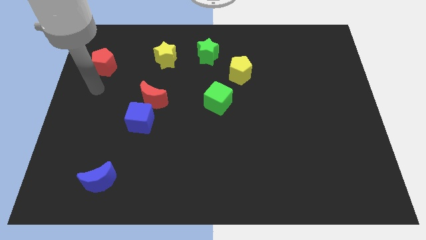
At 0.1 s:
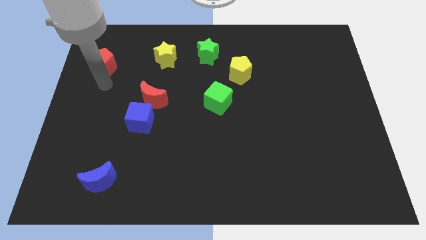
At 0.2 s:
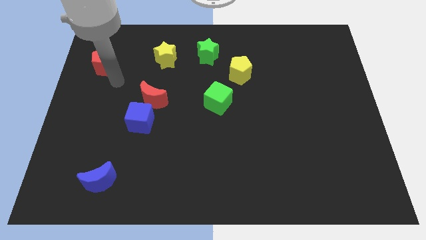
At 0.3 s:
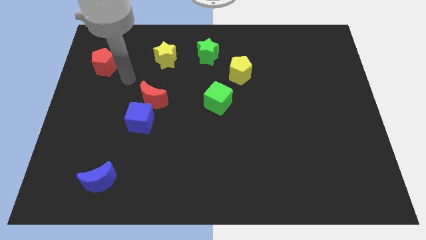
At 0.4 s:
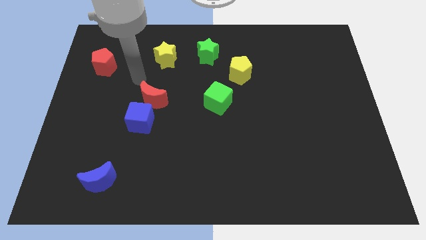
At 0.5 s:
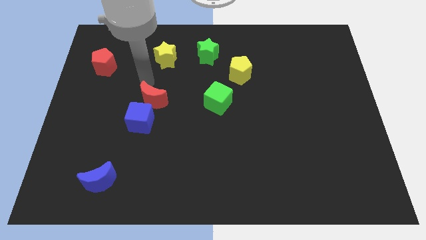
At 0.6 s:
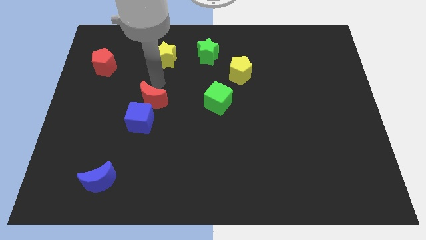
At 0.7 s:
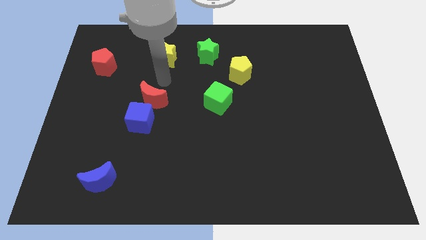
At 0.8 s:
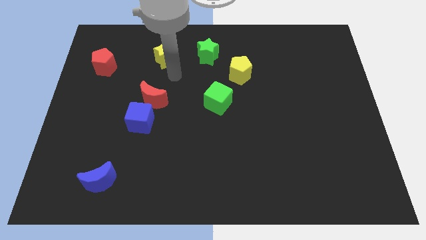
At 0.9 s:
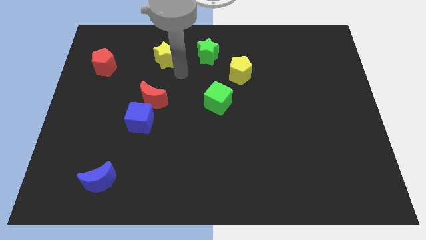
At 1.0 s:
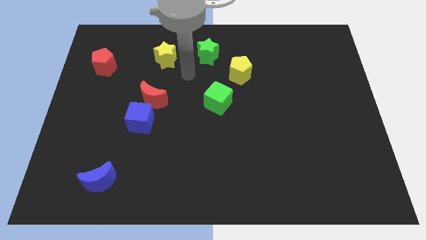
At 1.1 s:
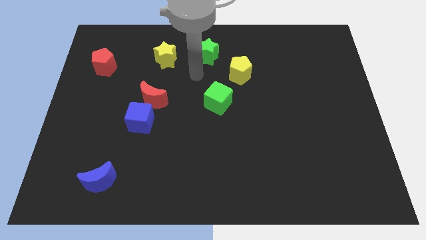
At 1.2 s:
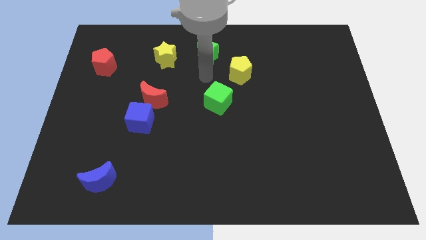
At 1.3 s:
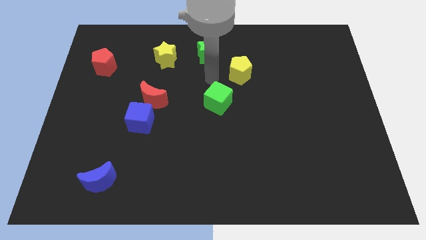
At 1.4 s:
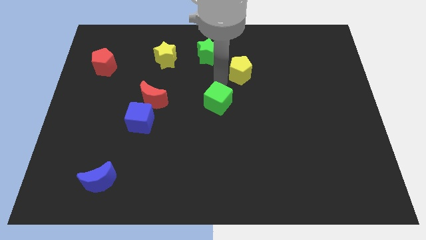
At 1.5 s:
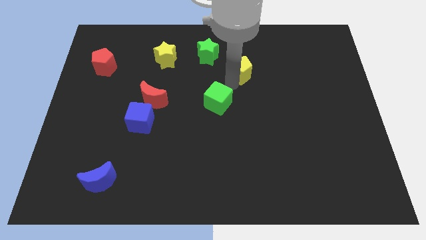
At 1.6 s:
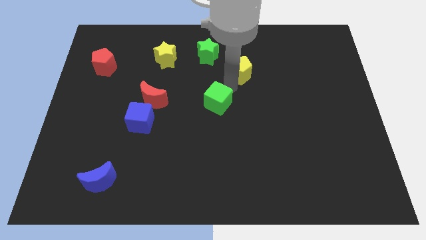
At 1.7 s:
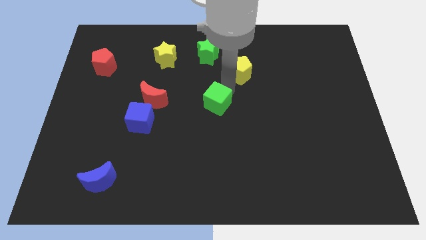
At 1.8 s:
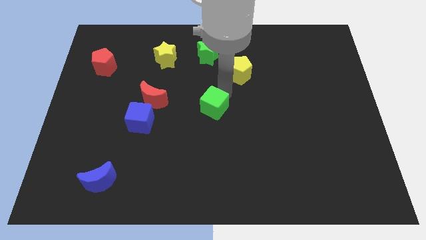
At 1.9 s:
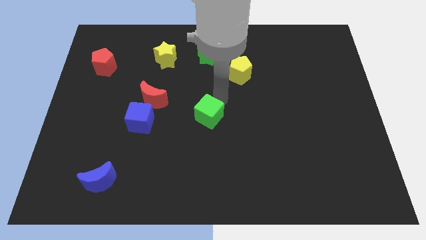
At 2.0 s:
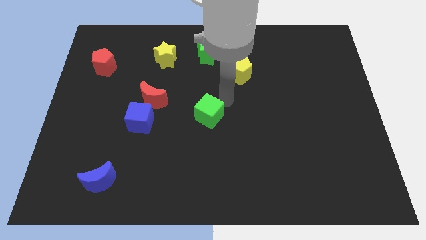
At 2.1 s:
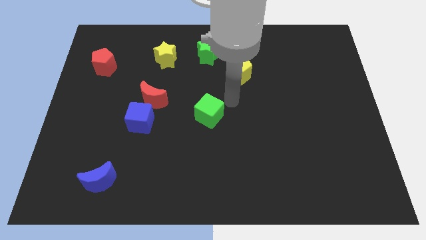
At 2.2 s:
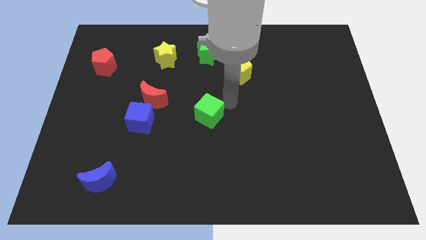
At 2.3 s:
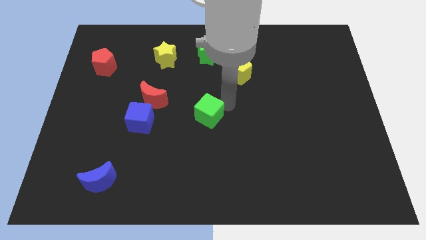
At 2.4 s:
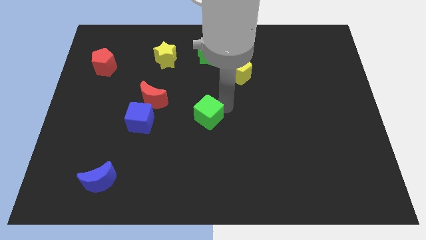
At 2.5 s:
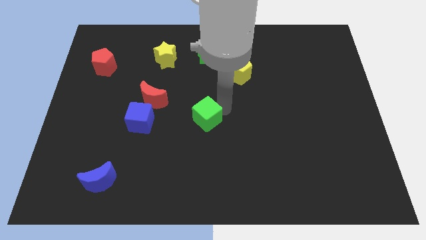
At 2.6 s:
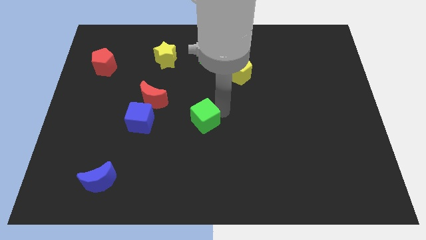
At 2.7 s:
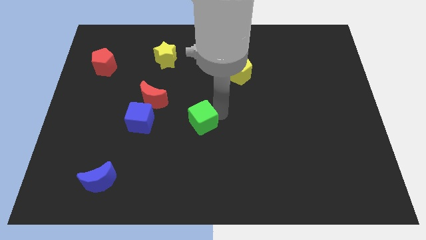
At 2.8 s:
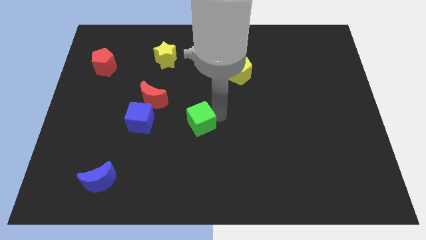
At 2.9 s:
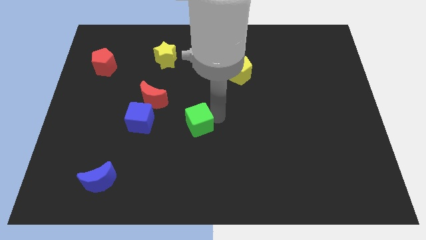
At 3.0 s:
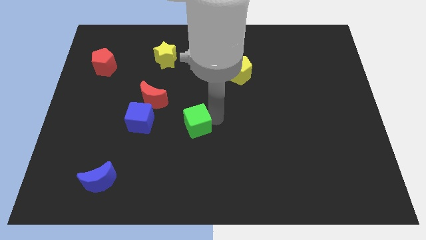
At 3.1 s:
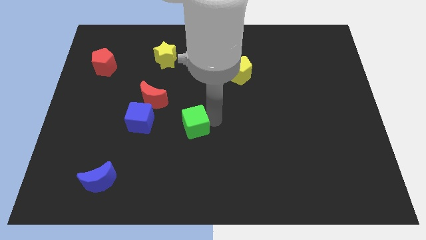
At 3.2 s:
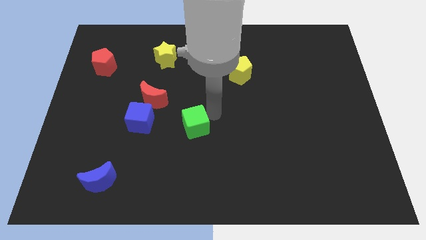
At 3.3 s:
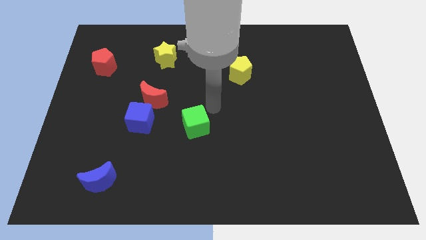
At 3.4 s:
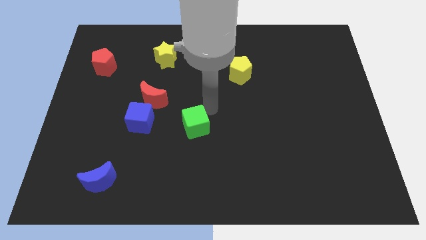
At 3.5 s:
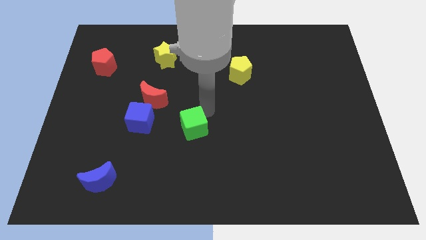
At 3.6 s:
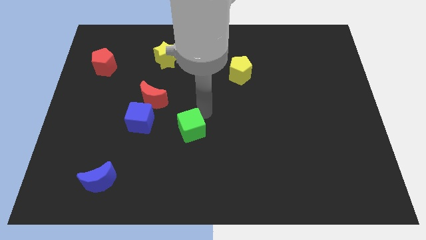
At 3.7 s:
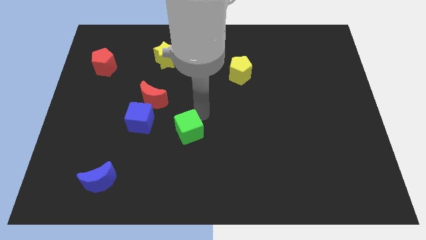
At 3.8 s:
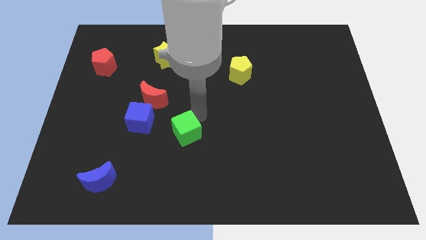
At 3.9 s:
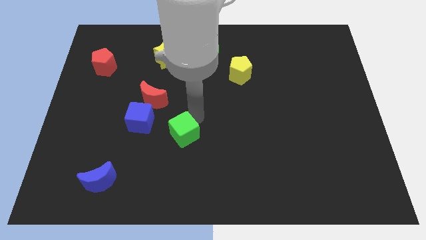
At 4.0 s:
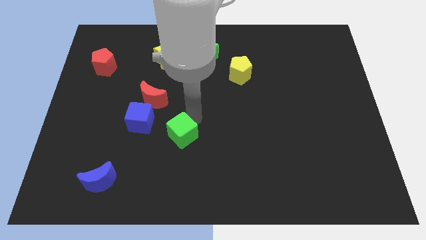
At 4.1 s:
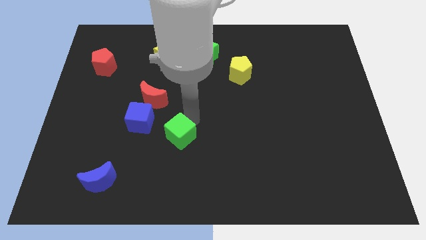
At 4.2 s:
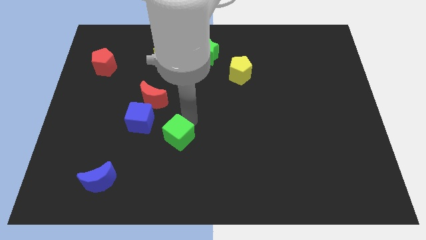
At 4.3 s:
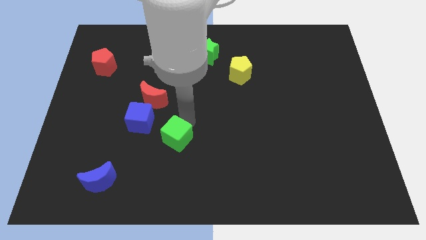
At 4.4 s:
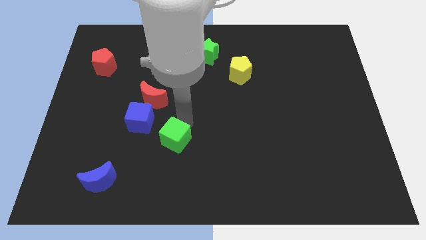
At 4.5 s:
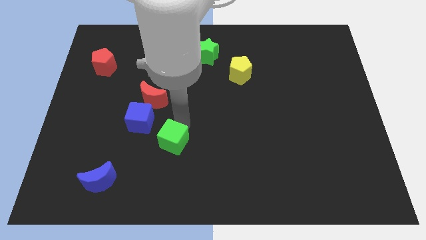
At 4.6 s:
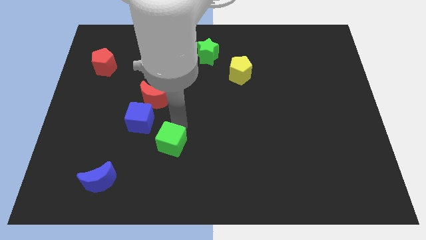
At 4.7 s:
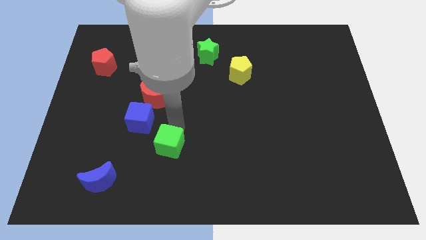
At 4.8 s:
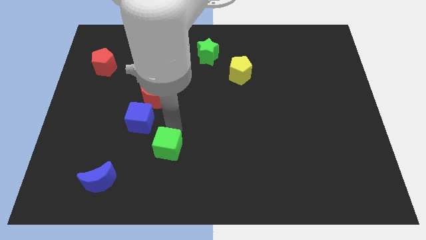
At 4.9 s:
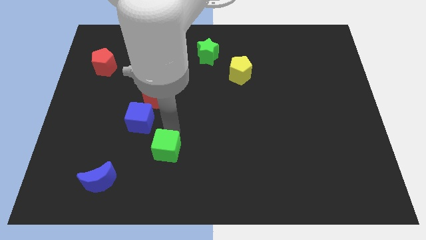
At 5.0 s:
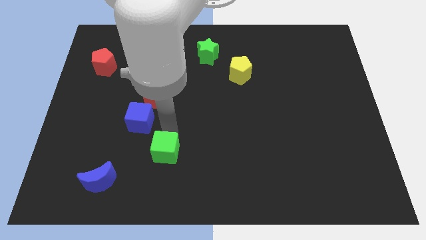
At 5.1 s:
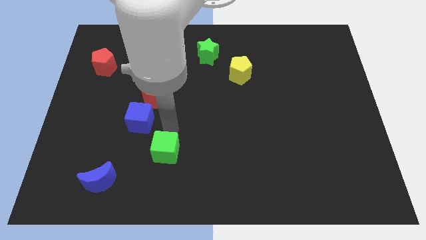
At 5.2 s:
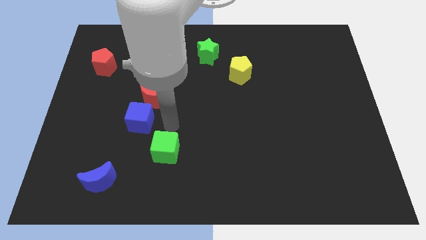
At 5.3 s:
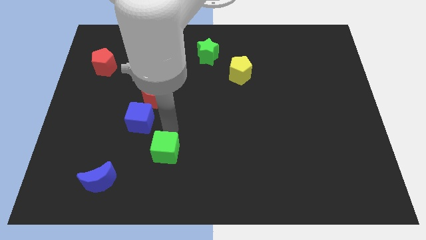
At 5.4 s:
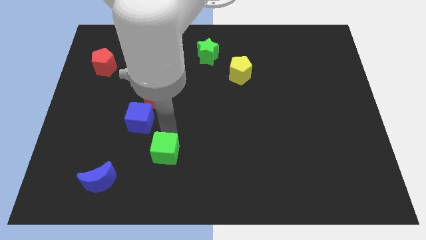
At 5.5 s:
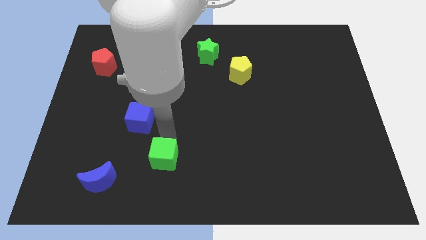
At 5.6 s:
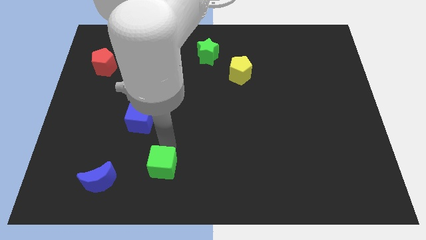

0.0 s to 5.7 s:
slide the green cube to the right of the blue moon

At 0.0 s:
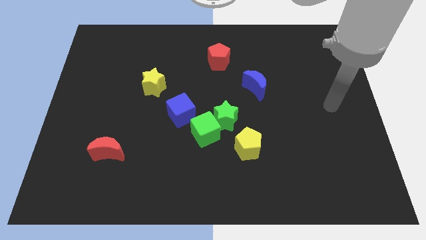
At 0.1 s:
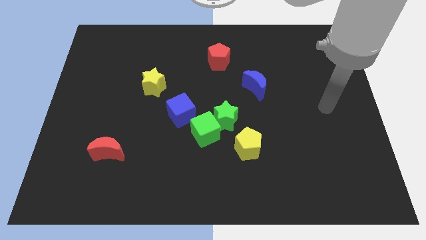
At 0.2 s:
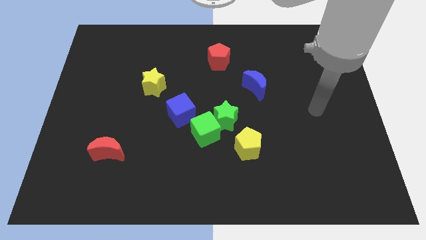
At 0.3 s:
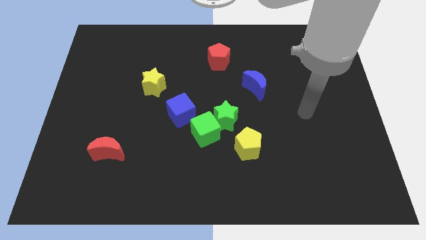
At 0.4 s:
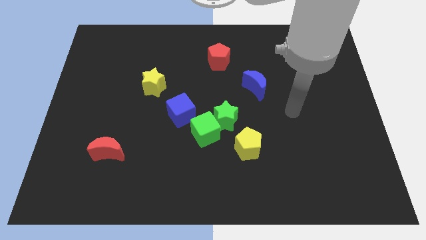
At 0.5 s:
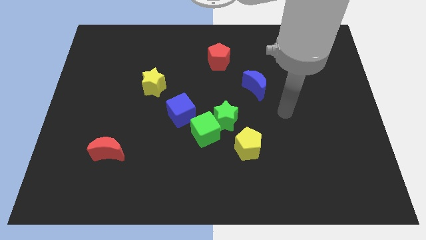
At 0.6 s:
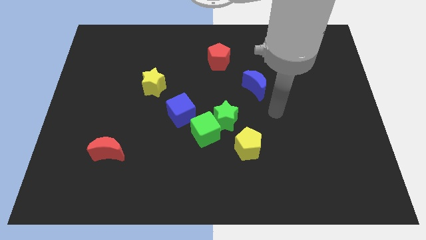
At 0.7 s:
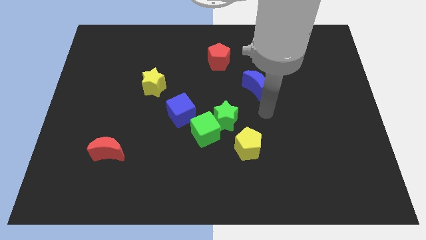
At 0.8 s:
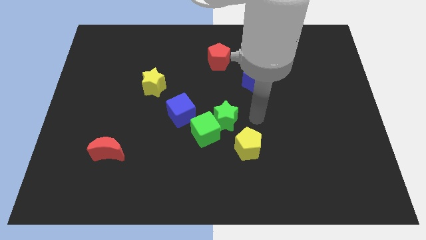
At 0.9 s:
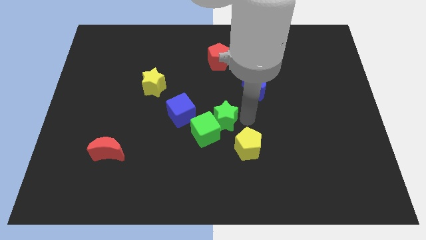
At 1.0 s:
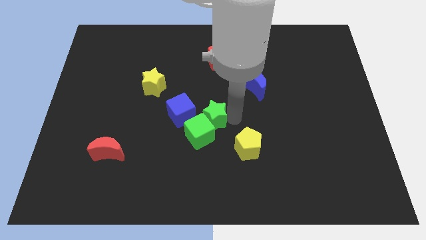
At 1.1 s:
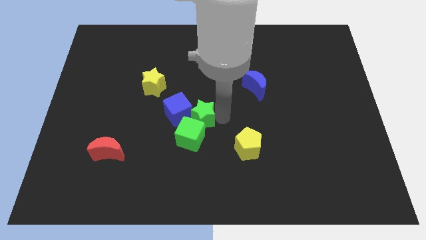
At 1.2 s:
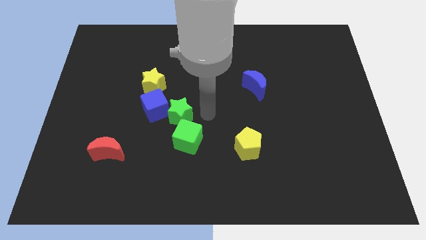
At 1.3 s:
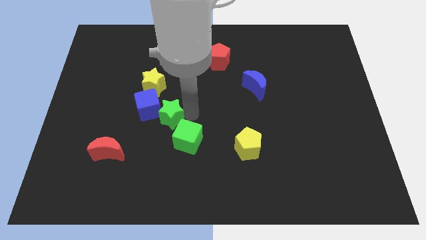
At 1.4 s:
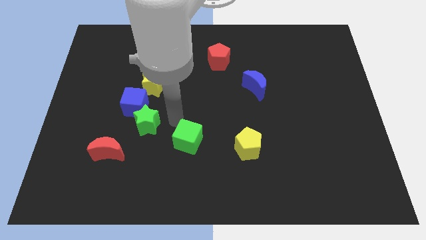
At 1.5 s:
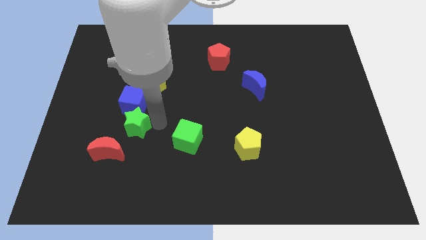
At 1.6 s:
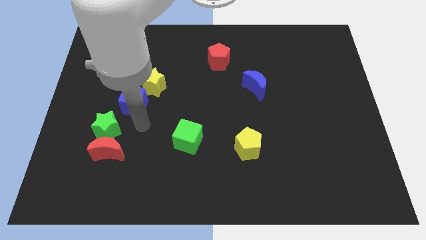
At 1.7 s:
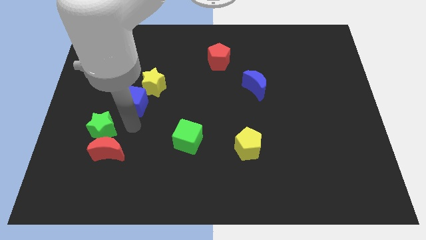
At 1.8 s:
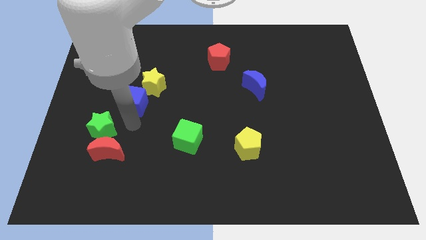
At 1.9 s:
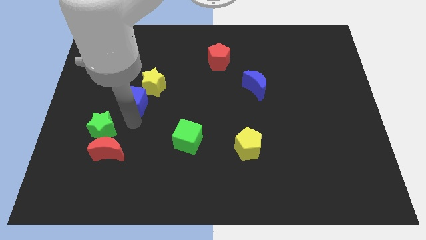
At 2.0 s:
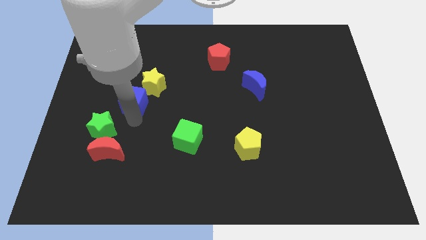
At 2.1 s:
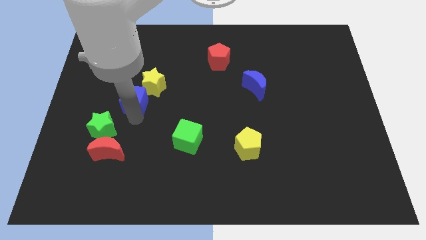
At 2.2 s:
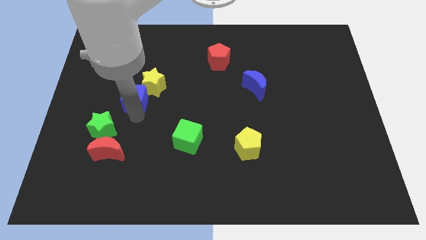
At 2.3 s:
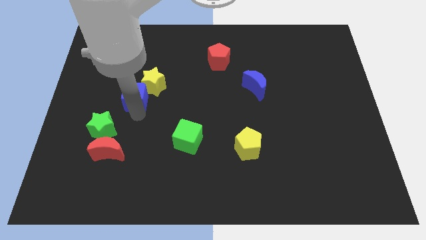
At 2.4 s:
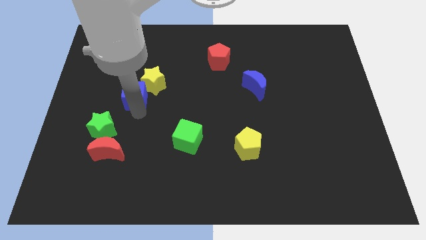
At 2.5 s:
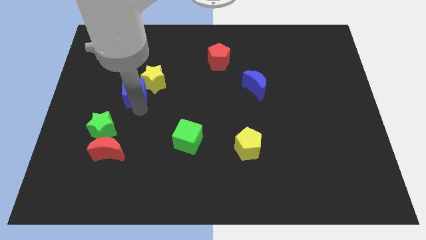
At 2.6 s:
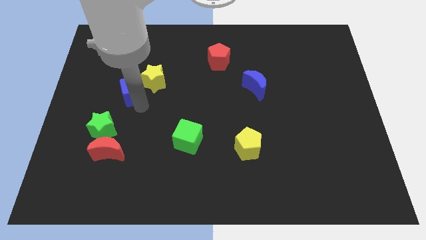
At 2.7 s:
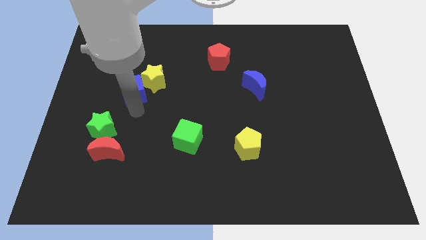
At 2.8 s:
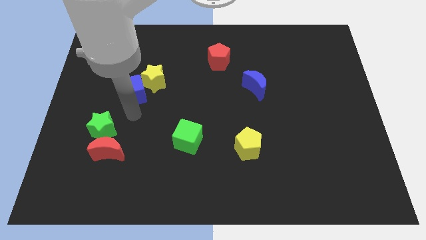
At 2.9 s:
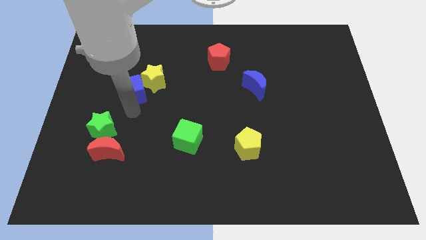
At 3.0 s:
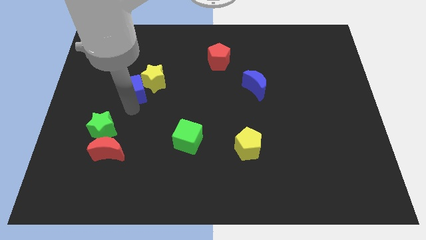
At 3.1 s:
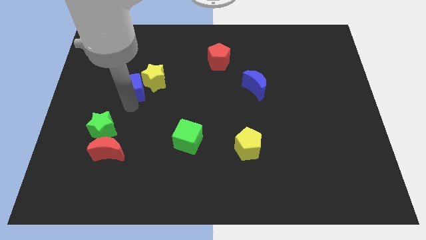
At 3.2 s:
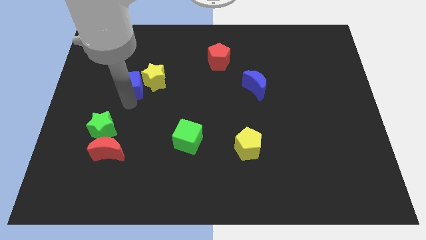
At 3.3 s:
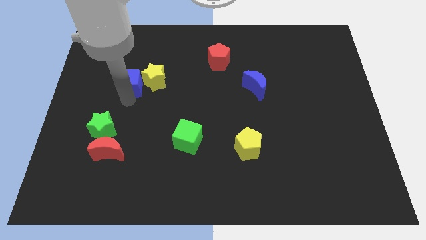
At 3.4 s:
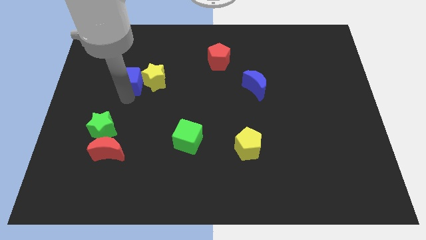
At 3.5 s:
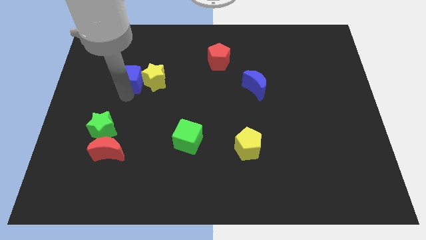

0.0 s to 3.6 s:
slide the blue cube to the top left side of the yellow star
